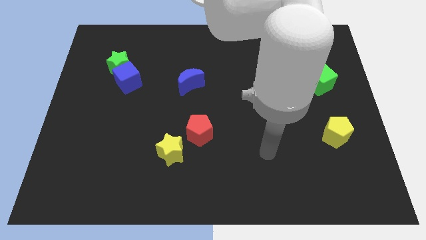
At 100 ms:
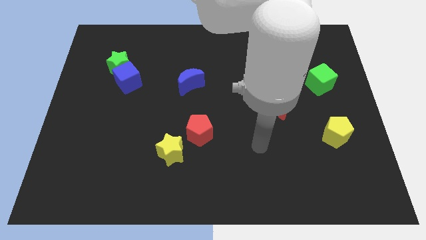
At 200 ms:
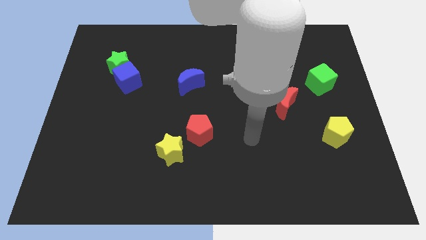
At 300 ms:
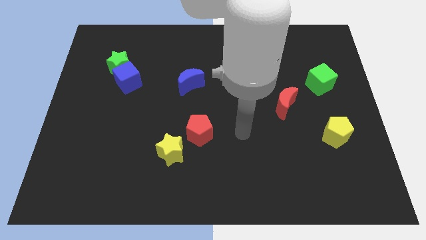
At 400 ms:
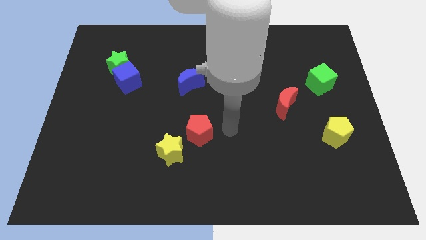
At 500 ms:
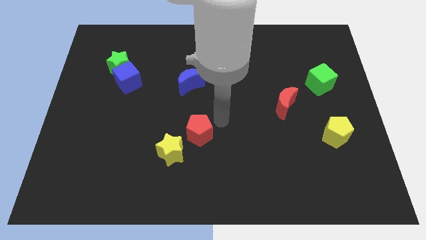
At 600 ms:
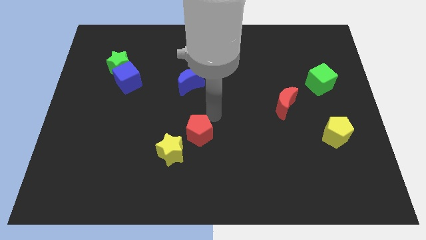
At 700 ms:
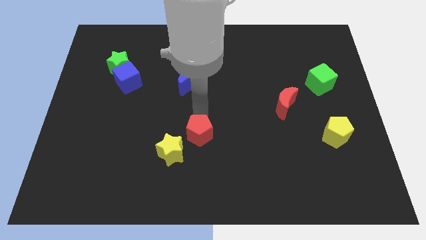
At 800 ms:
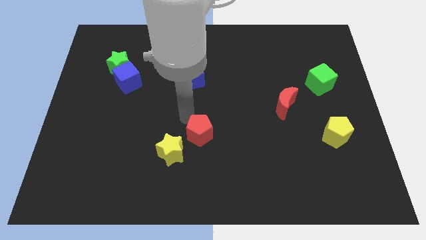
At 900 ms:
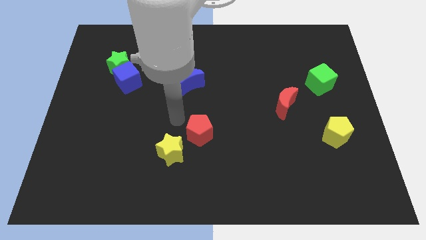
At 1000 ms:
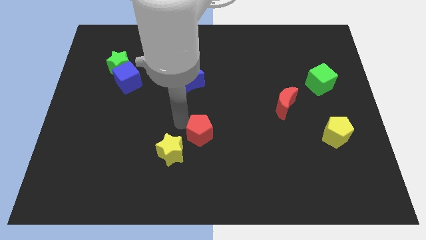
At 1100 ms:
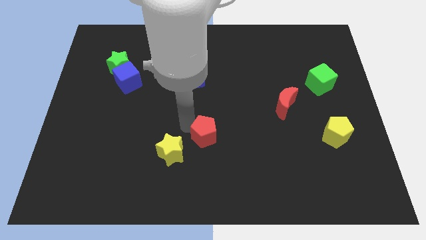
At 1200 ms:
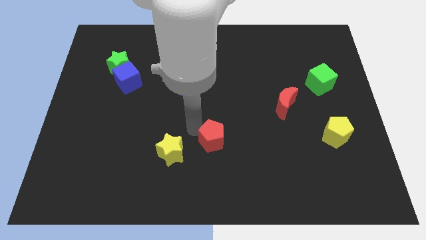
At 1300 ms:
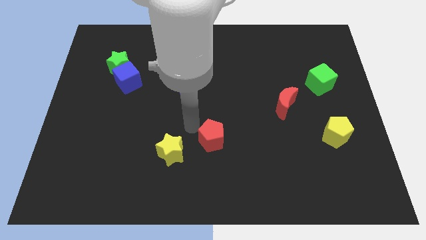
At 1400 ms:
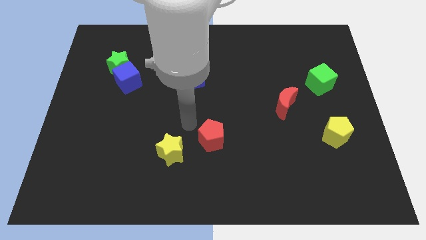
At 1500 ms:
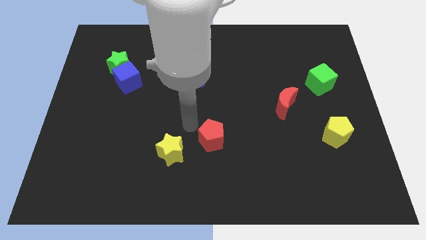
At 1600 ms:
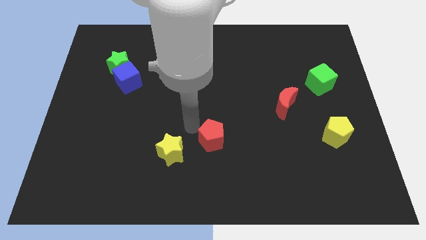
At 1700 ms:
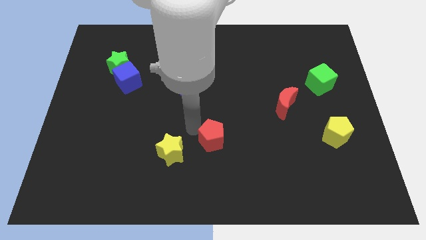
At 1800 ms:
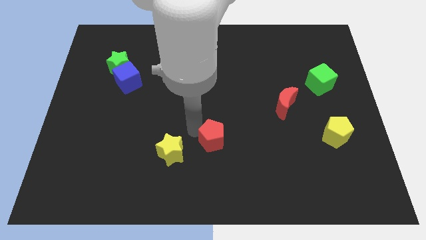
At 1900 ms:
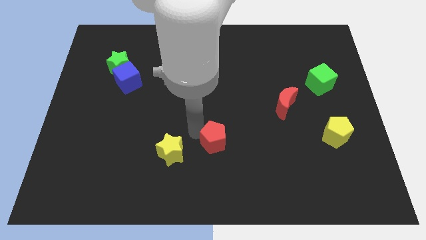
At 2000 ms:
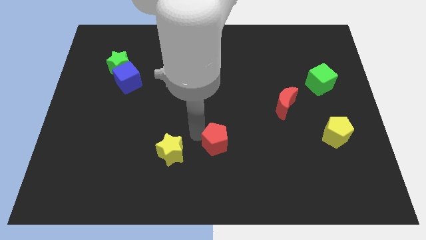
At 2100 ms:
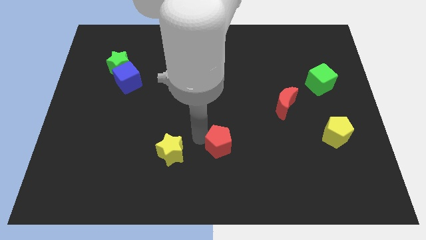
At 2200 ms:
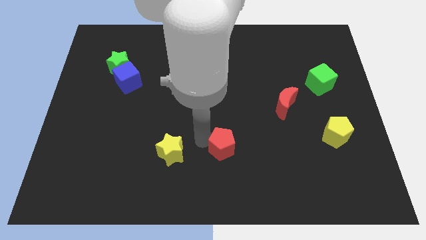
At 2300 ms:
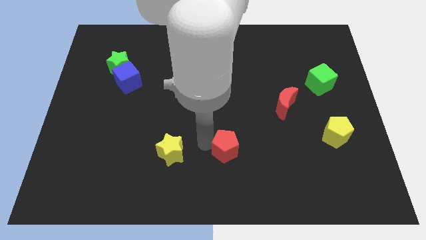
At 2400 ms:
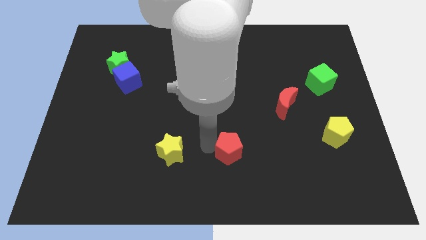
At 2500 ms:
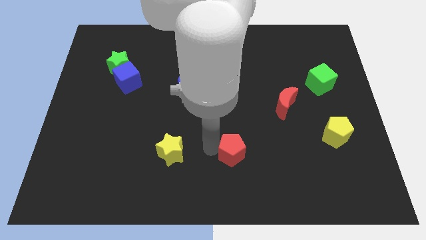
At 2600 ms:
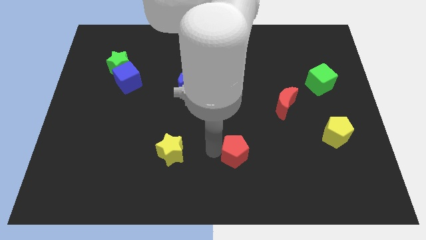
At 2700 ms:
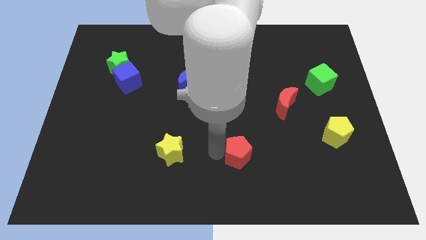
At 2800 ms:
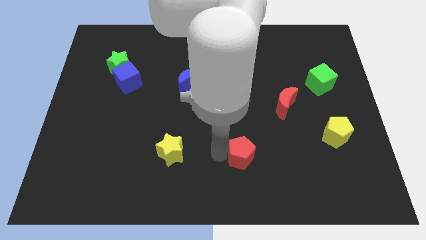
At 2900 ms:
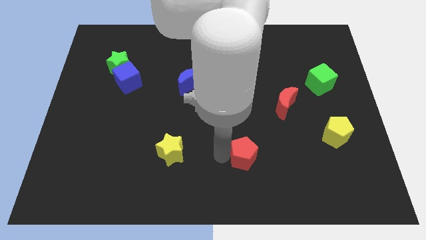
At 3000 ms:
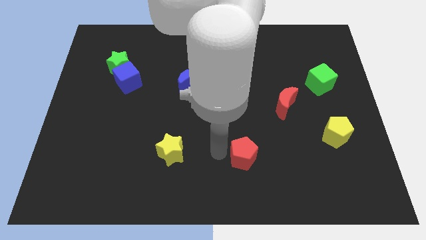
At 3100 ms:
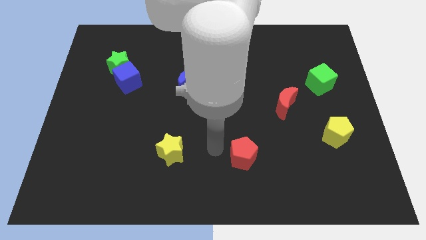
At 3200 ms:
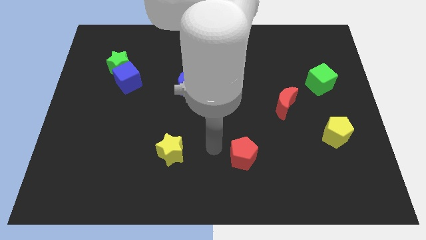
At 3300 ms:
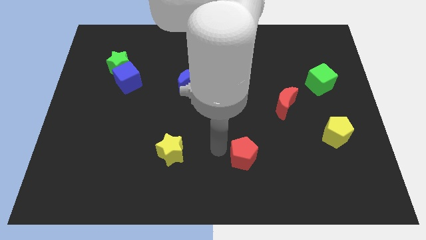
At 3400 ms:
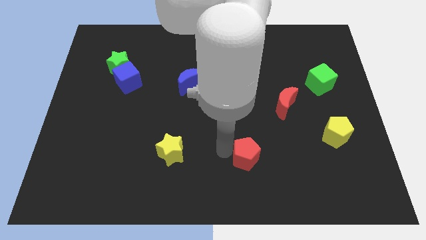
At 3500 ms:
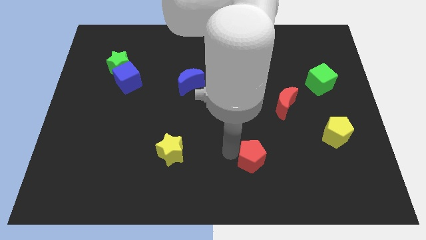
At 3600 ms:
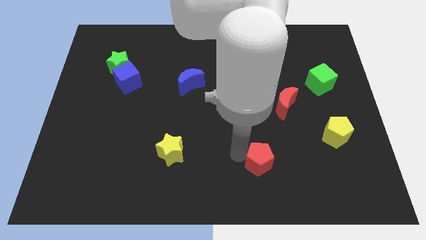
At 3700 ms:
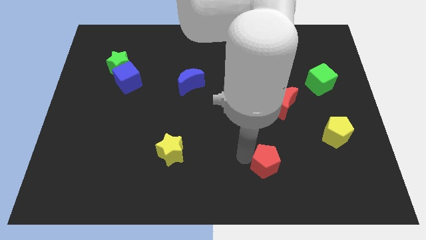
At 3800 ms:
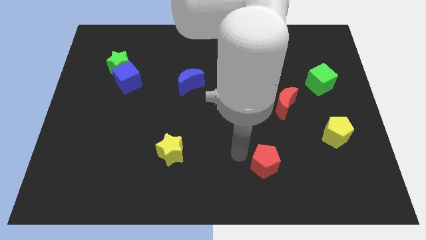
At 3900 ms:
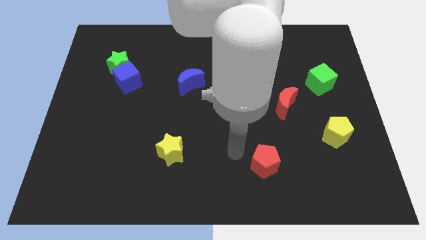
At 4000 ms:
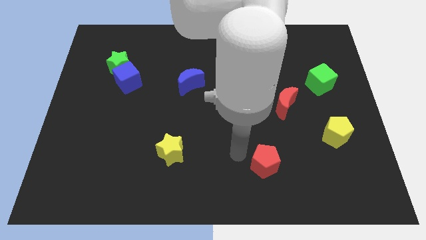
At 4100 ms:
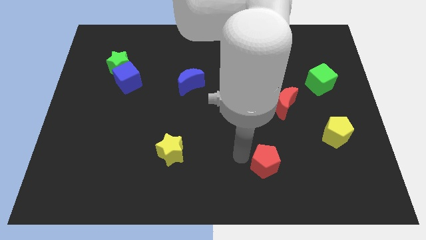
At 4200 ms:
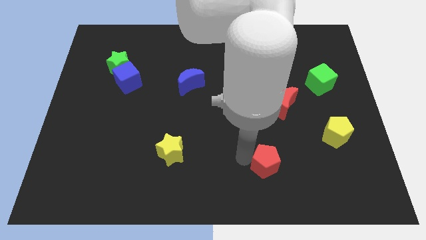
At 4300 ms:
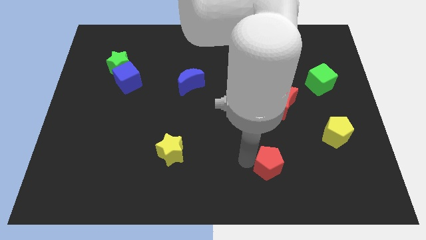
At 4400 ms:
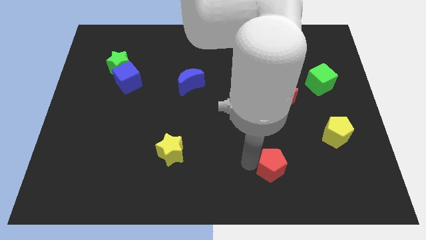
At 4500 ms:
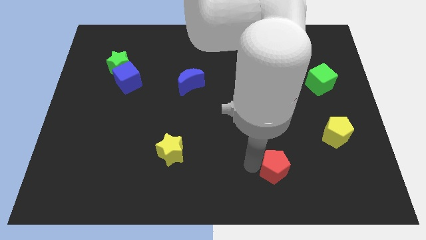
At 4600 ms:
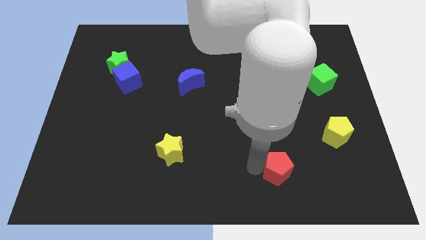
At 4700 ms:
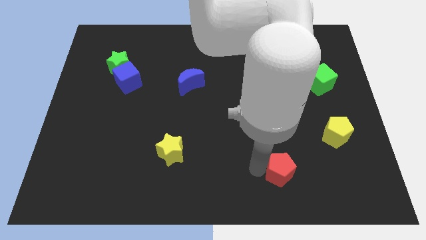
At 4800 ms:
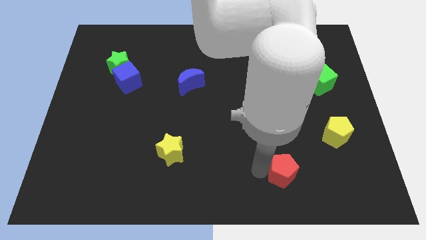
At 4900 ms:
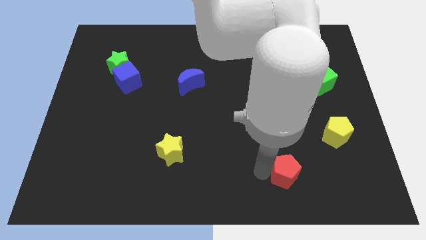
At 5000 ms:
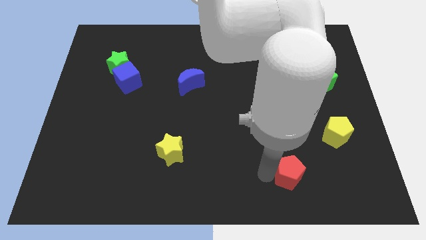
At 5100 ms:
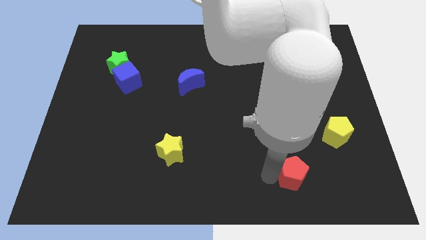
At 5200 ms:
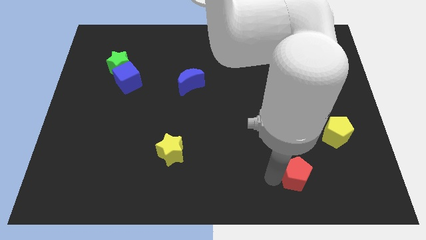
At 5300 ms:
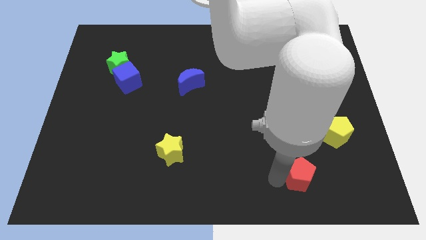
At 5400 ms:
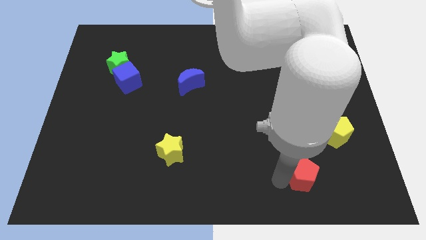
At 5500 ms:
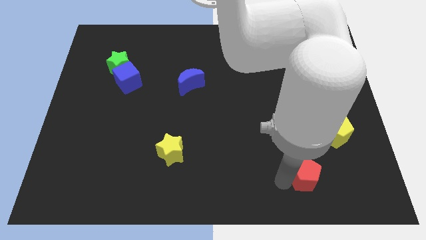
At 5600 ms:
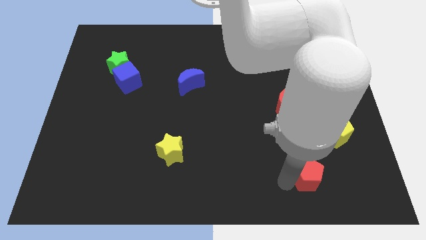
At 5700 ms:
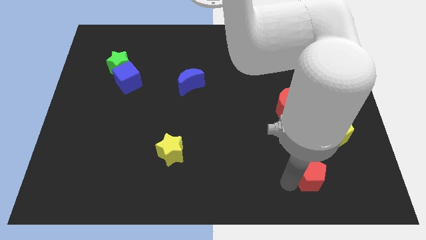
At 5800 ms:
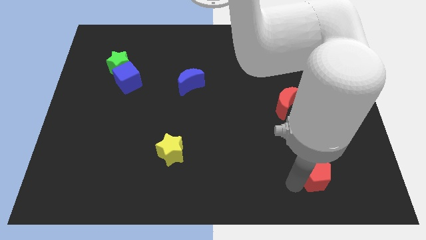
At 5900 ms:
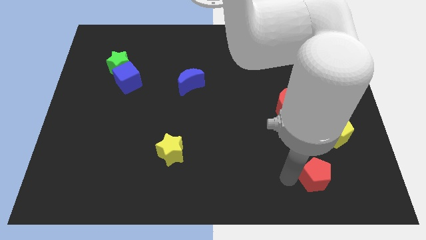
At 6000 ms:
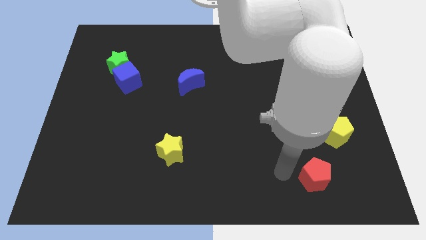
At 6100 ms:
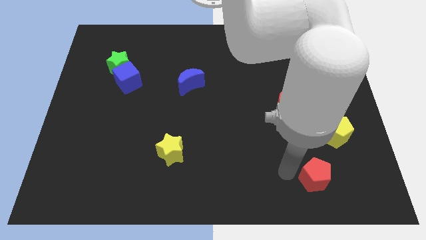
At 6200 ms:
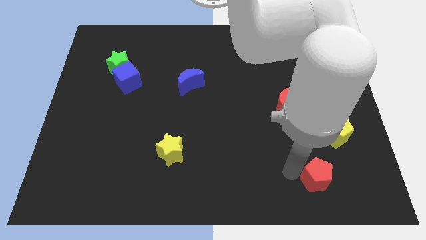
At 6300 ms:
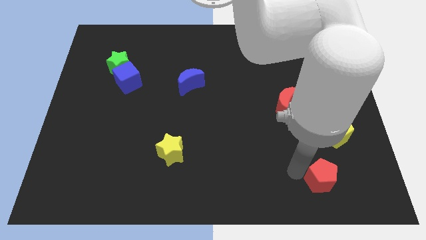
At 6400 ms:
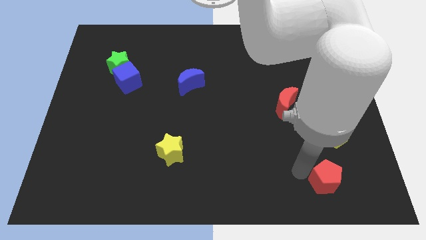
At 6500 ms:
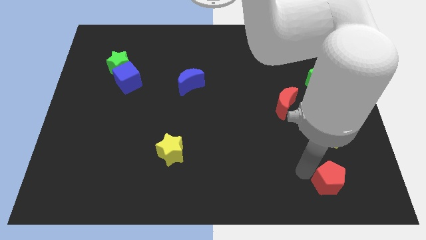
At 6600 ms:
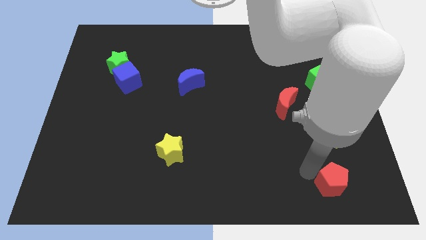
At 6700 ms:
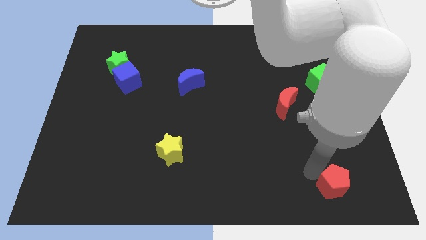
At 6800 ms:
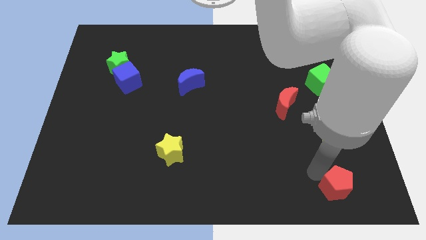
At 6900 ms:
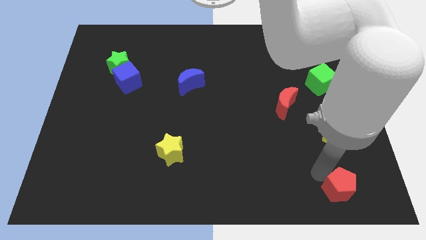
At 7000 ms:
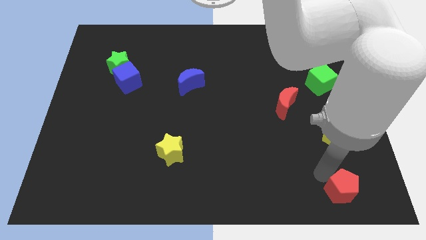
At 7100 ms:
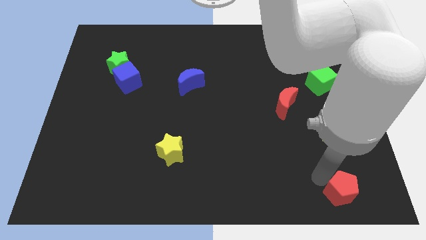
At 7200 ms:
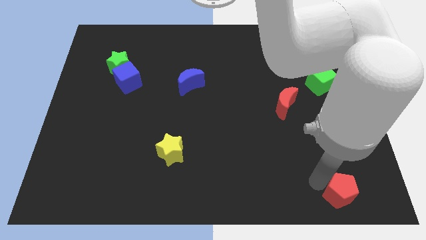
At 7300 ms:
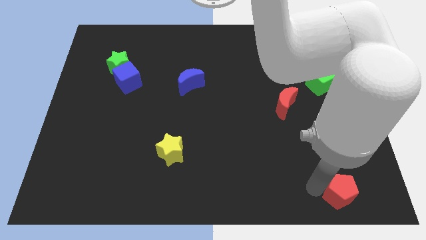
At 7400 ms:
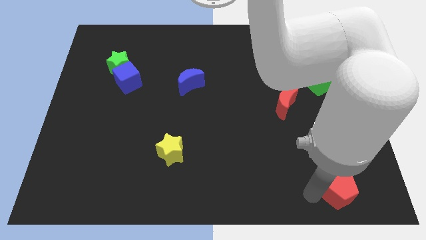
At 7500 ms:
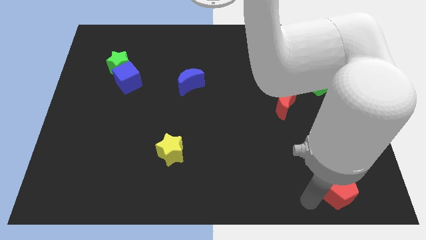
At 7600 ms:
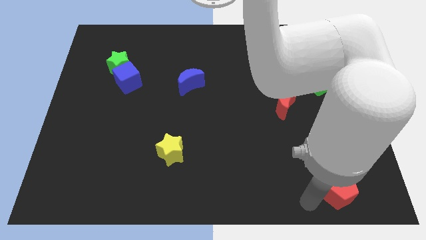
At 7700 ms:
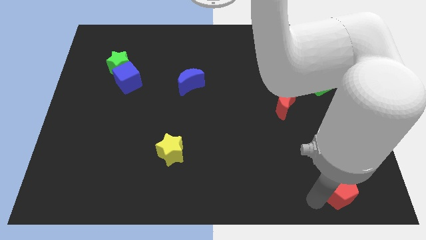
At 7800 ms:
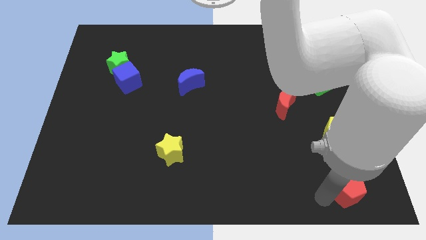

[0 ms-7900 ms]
move the red pentagon to the bottom right
